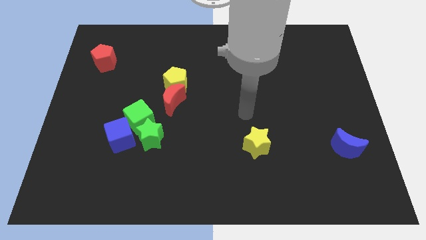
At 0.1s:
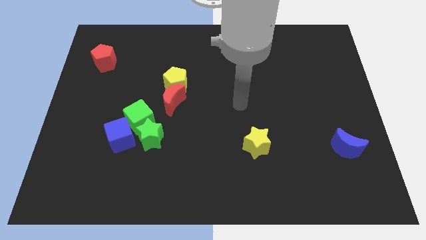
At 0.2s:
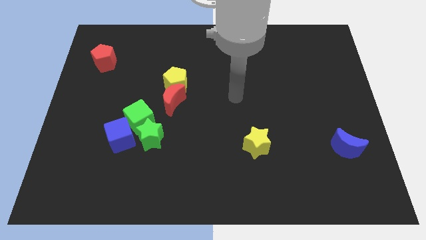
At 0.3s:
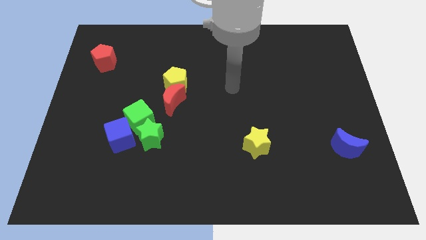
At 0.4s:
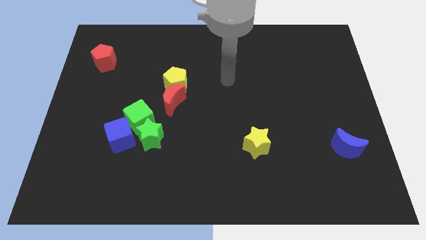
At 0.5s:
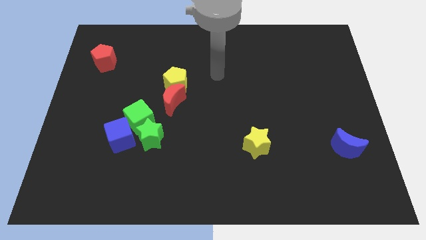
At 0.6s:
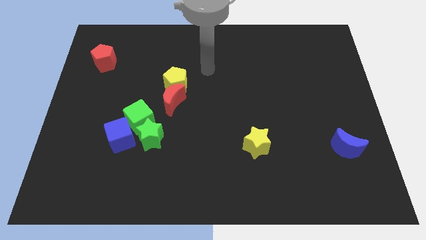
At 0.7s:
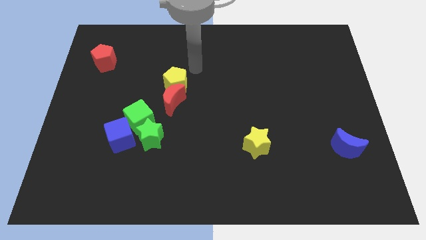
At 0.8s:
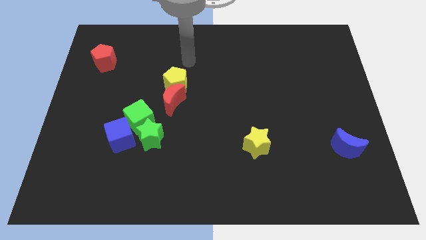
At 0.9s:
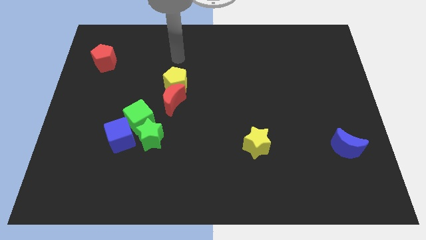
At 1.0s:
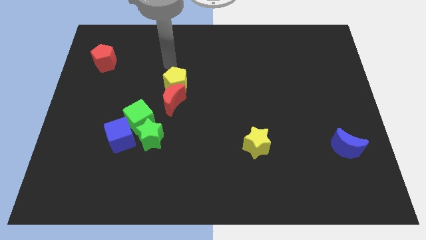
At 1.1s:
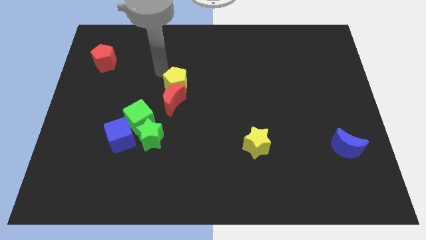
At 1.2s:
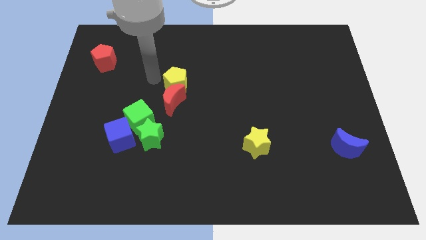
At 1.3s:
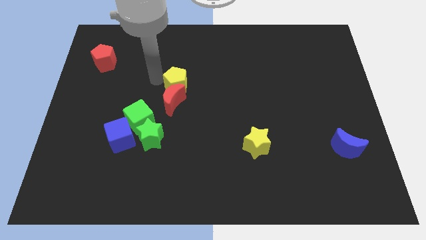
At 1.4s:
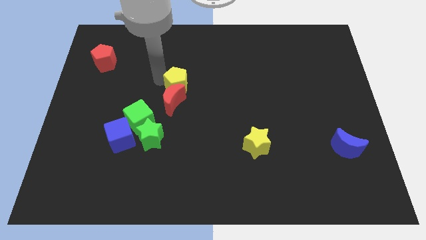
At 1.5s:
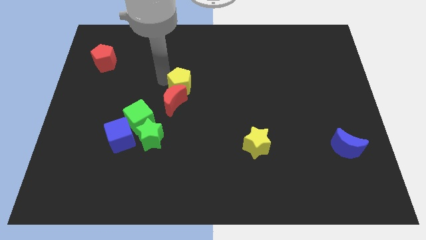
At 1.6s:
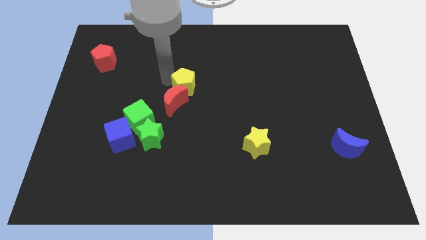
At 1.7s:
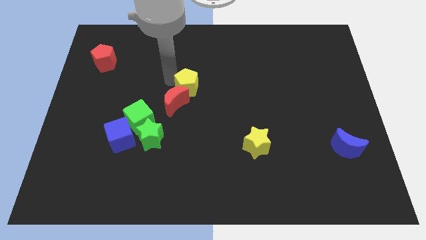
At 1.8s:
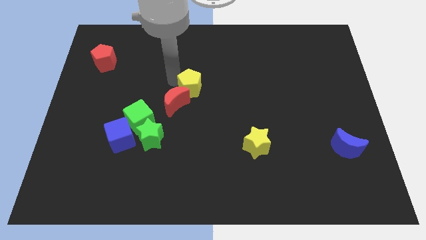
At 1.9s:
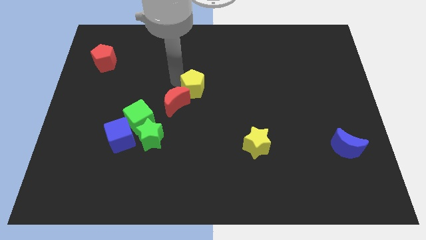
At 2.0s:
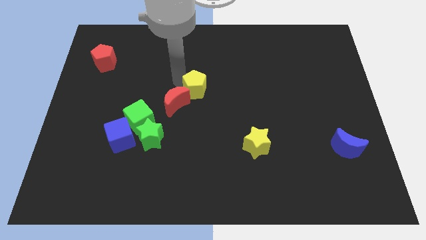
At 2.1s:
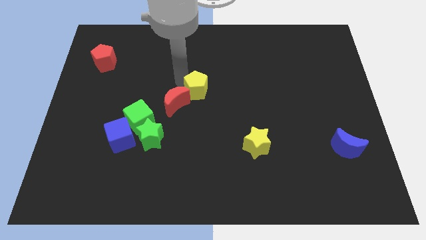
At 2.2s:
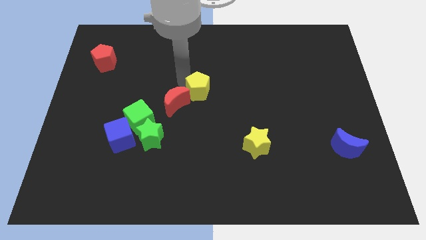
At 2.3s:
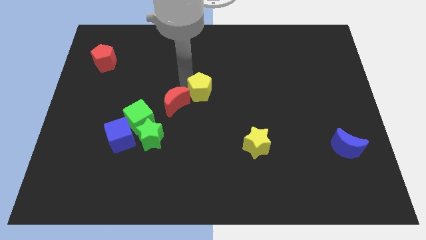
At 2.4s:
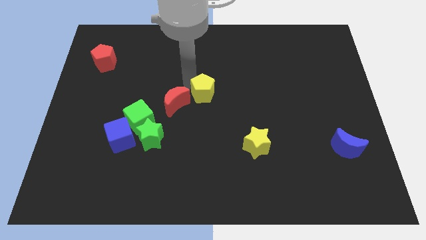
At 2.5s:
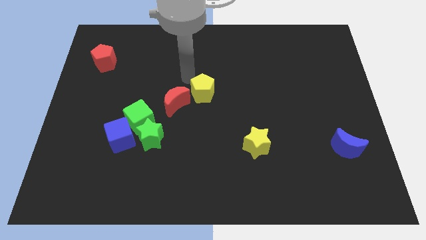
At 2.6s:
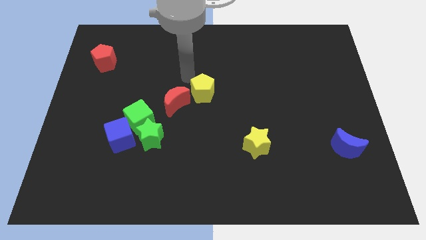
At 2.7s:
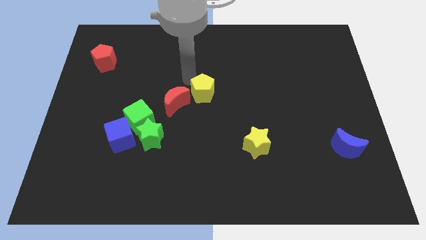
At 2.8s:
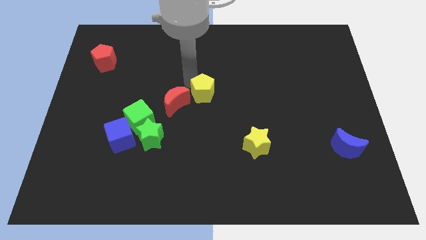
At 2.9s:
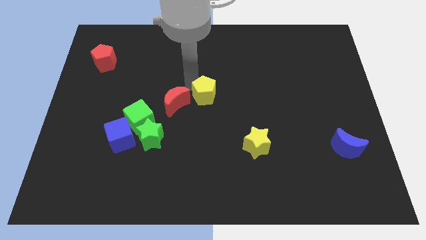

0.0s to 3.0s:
slightly slide the yellow pentagon diagonally downwards and right

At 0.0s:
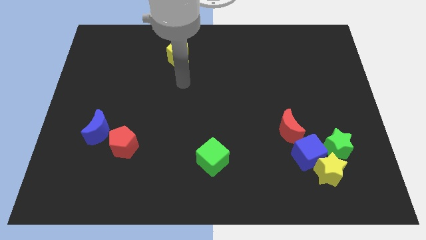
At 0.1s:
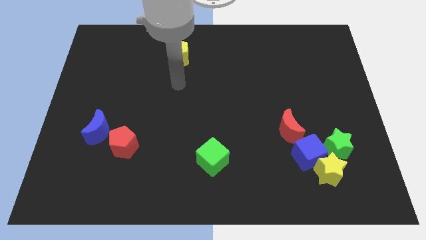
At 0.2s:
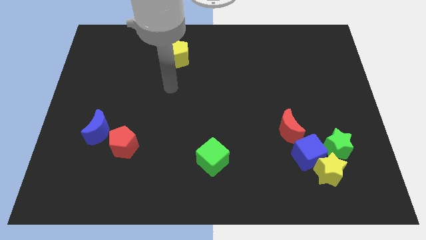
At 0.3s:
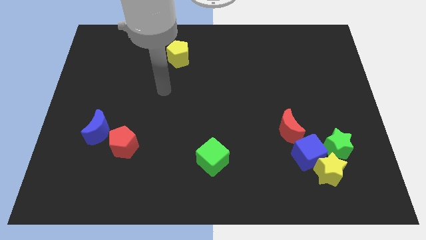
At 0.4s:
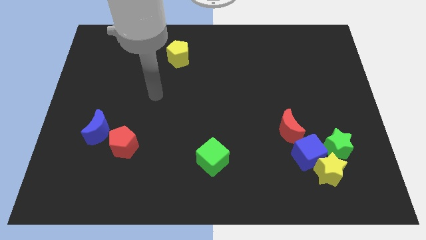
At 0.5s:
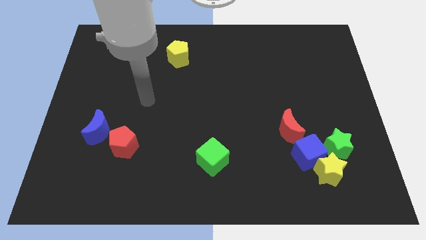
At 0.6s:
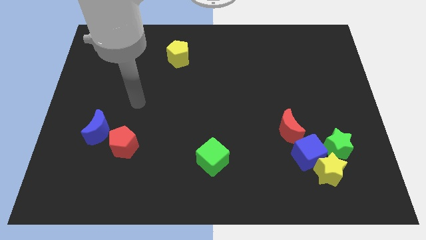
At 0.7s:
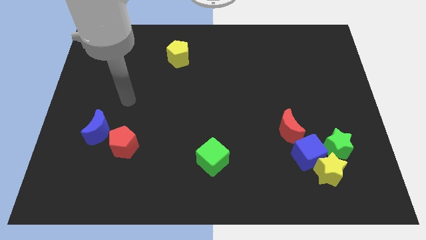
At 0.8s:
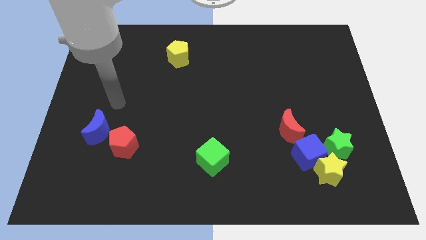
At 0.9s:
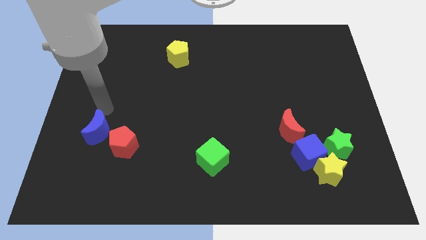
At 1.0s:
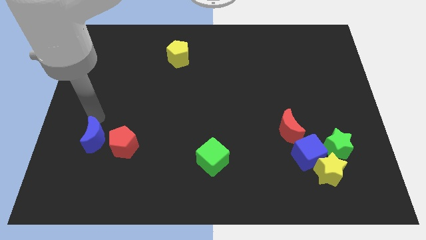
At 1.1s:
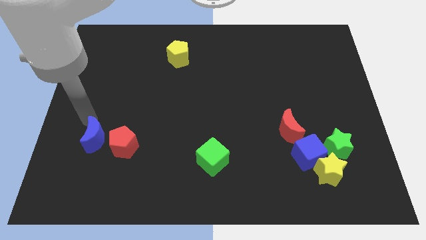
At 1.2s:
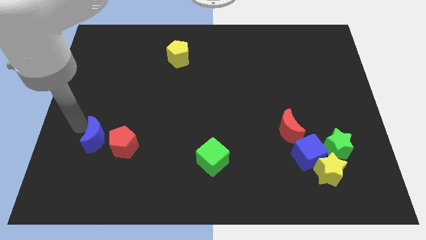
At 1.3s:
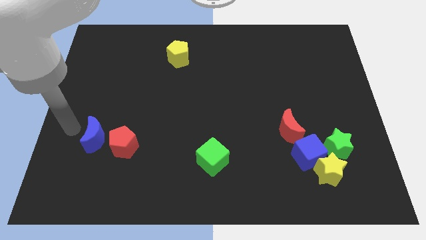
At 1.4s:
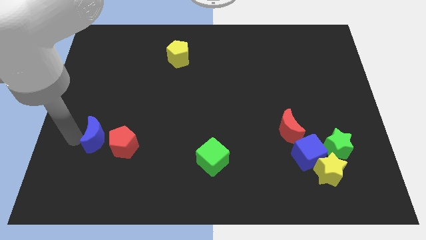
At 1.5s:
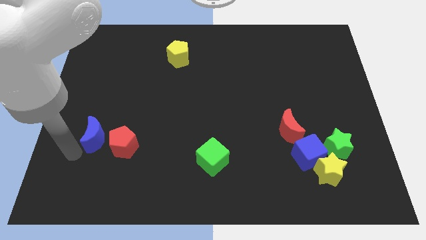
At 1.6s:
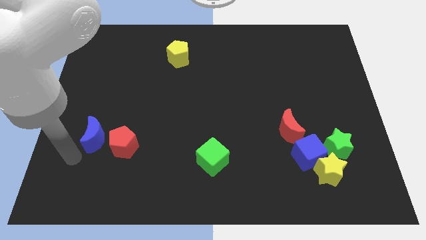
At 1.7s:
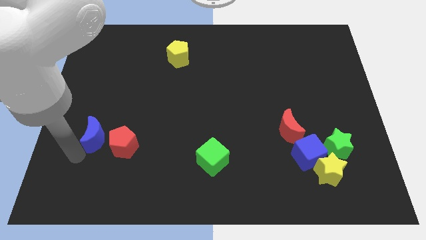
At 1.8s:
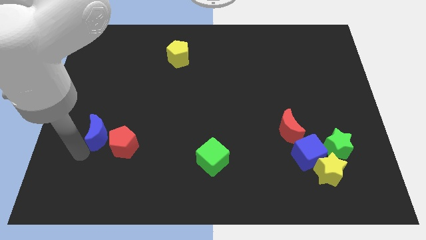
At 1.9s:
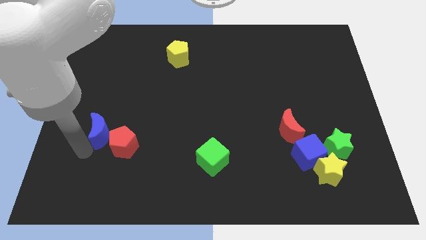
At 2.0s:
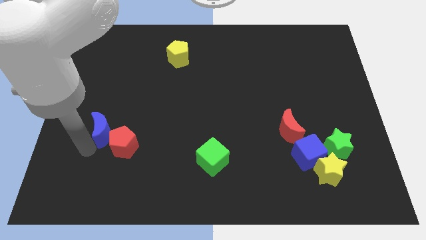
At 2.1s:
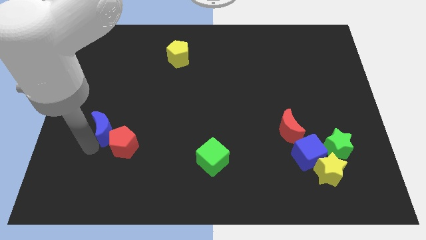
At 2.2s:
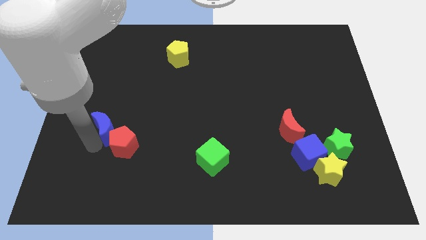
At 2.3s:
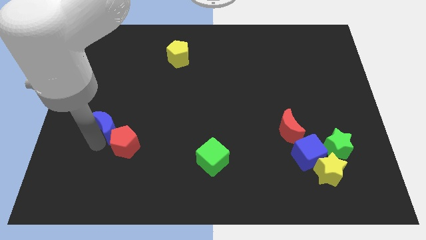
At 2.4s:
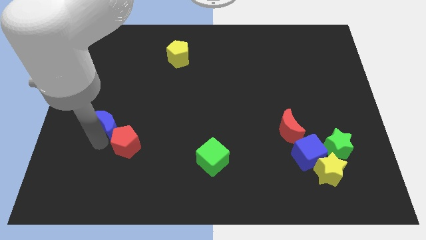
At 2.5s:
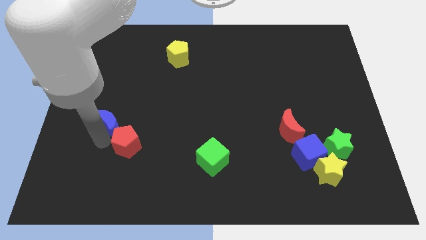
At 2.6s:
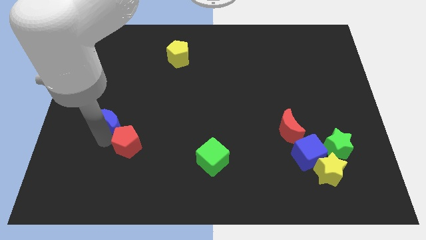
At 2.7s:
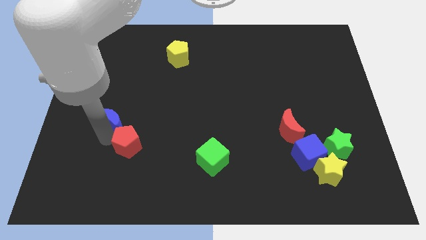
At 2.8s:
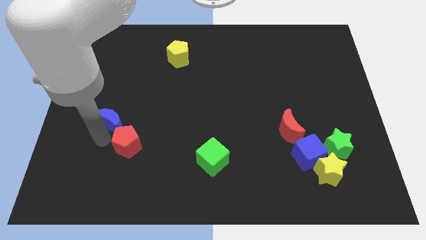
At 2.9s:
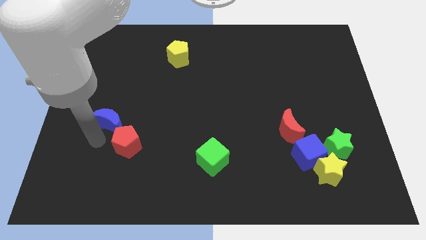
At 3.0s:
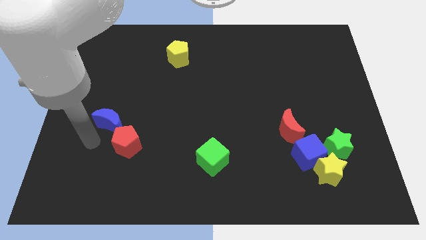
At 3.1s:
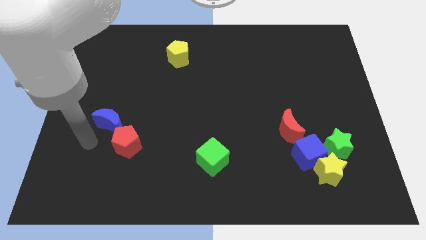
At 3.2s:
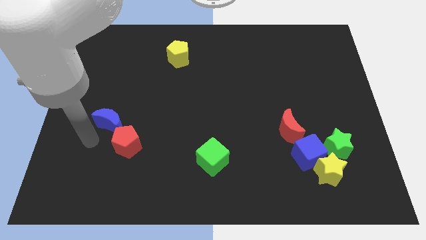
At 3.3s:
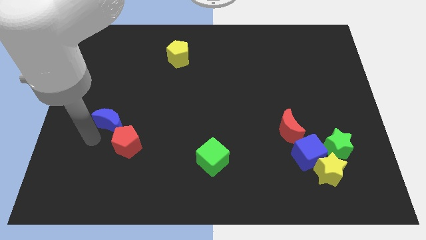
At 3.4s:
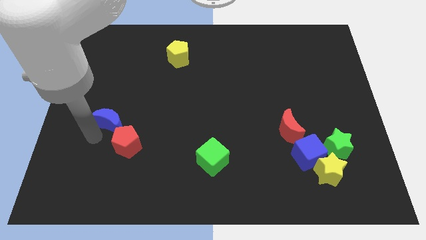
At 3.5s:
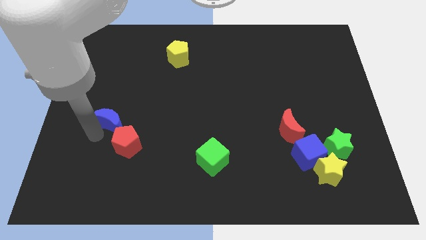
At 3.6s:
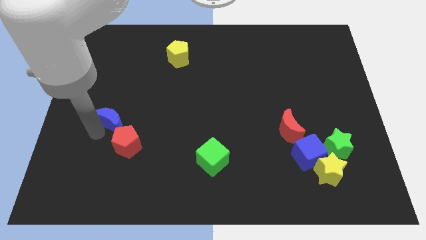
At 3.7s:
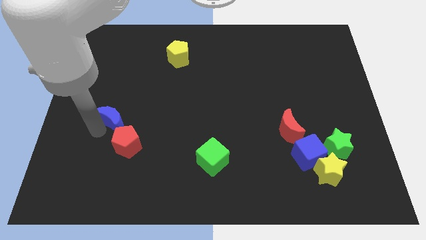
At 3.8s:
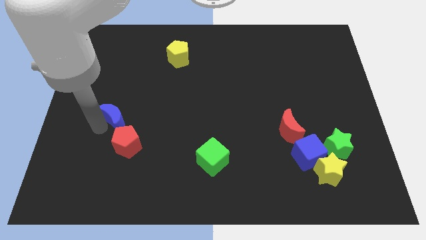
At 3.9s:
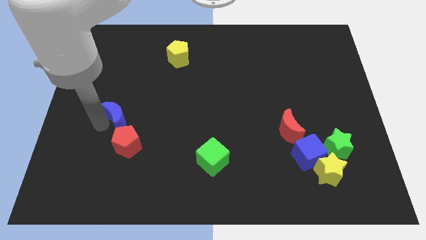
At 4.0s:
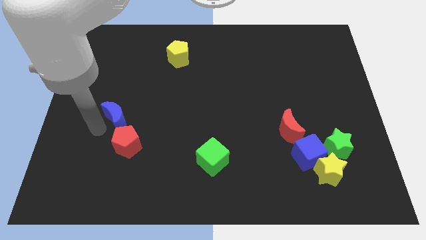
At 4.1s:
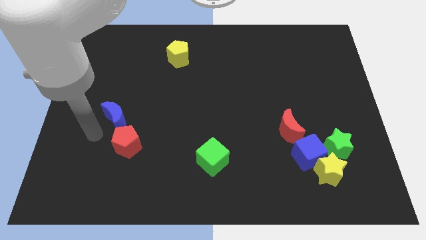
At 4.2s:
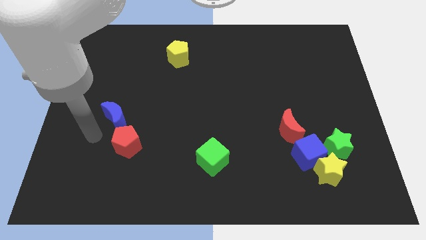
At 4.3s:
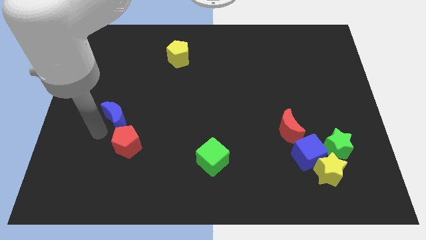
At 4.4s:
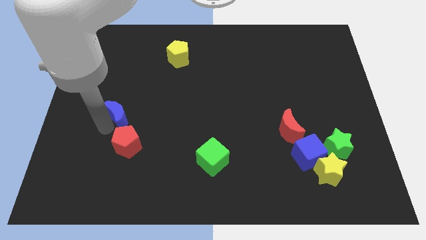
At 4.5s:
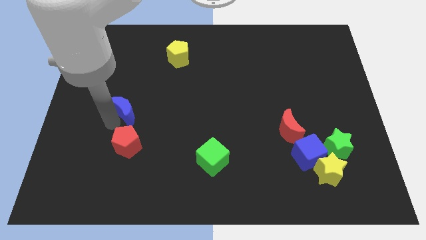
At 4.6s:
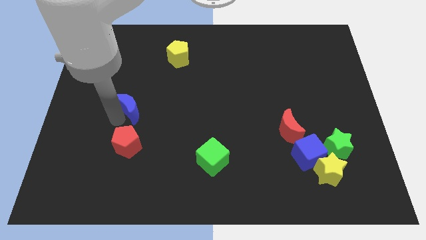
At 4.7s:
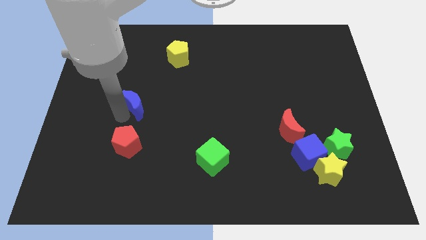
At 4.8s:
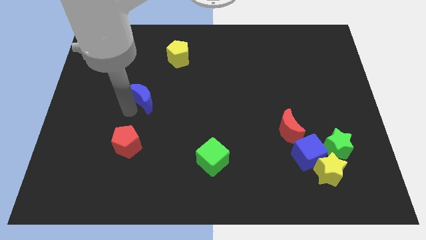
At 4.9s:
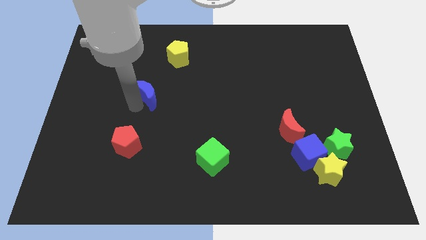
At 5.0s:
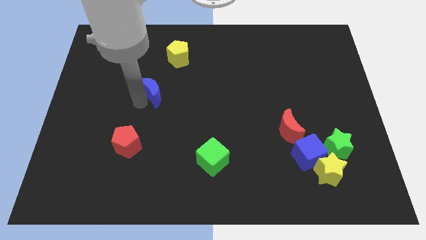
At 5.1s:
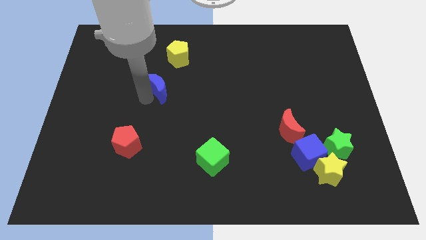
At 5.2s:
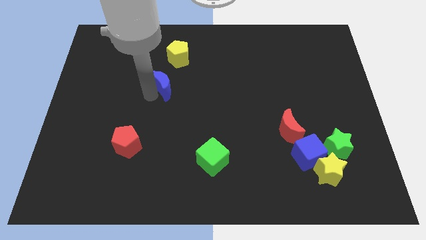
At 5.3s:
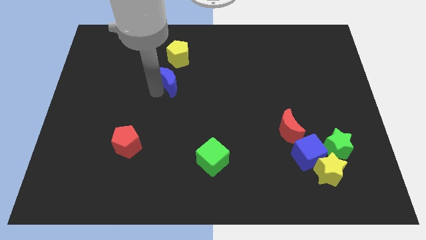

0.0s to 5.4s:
slide the blue moon upwards and then right
